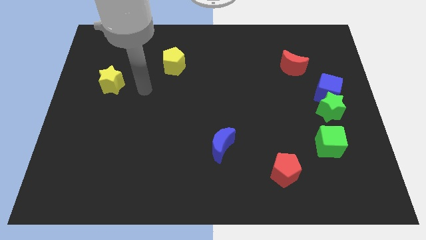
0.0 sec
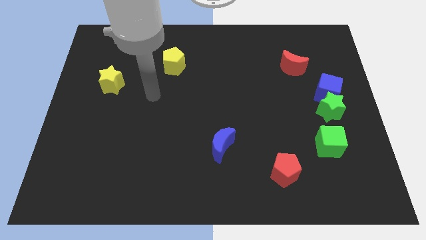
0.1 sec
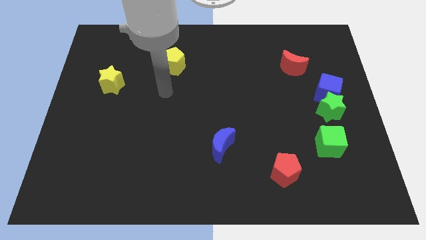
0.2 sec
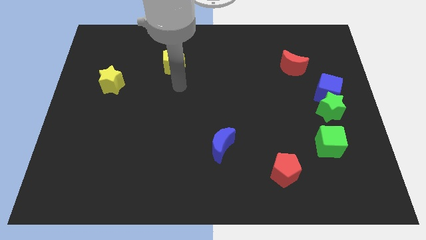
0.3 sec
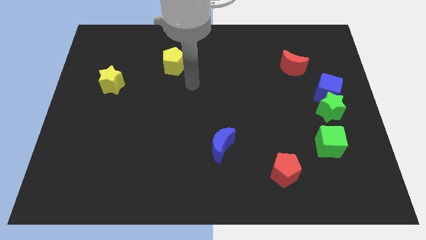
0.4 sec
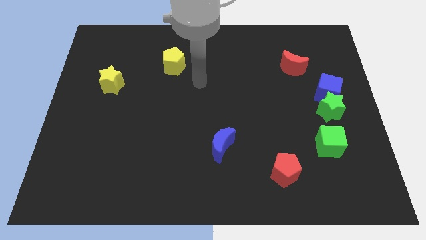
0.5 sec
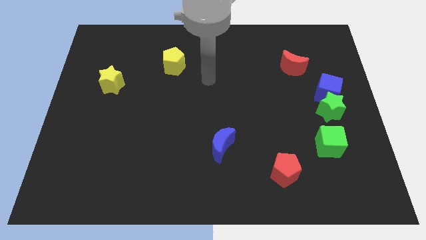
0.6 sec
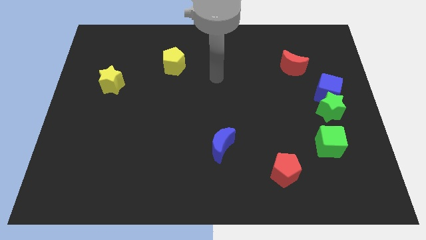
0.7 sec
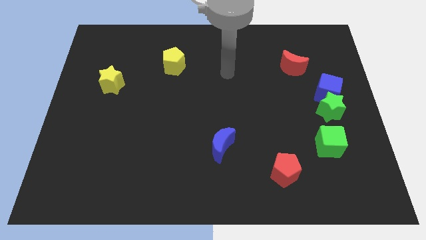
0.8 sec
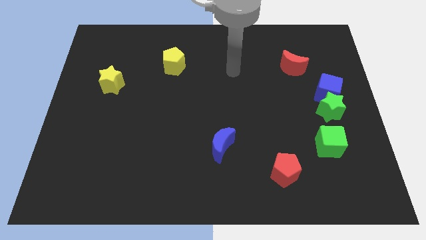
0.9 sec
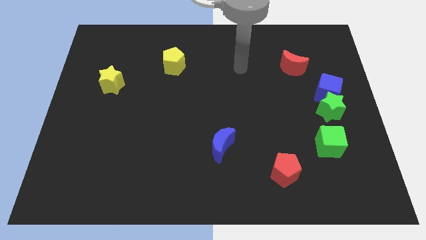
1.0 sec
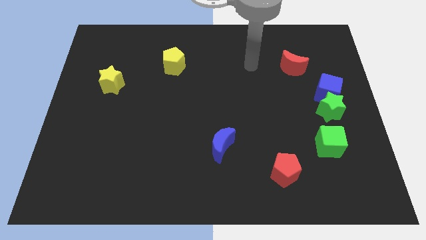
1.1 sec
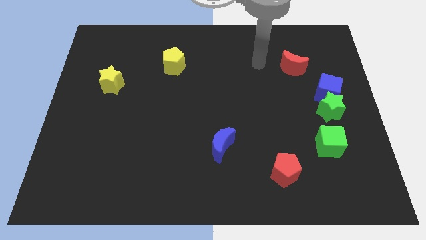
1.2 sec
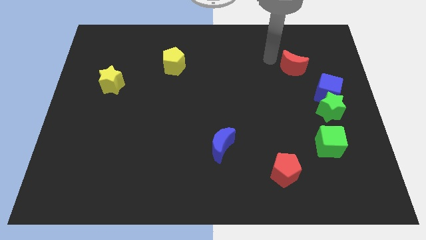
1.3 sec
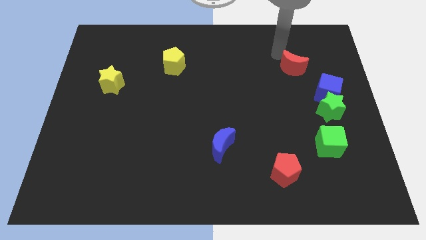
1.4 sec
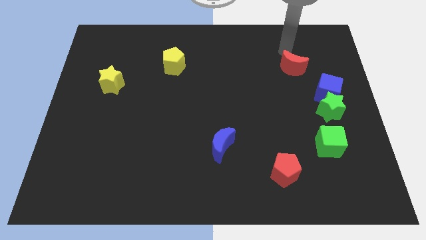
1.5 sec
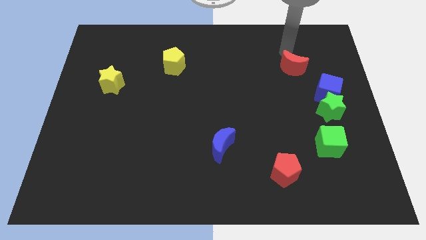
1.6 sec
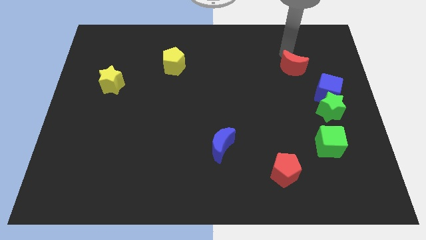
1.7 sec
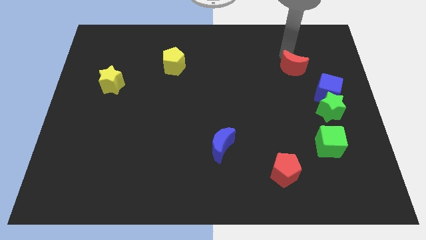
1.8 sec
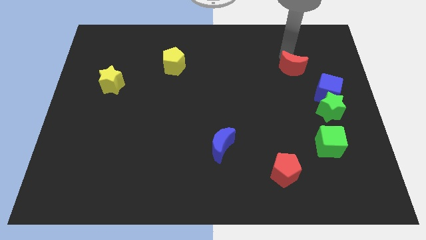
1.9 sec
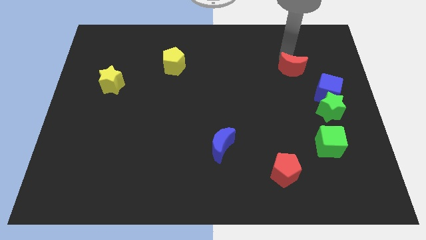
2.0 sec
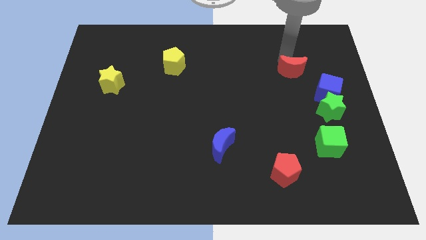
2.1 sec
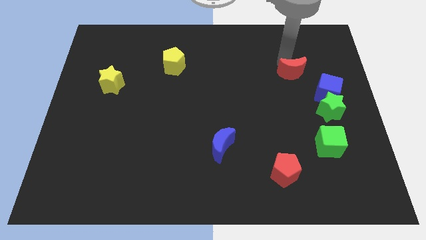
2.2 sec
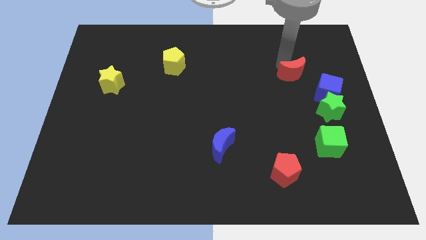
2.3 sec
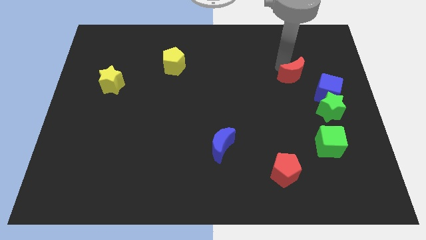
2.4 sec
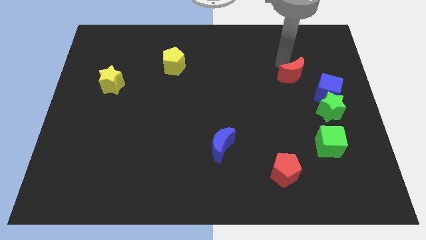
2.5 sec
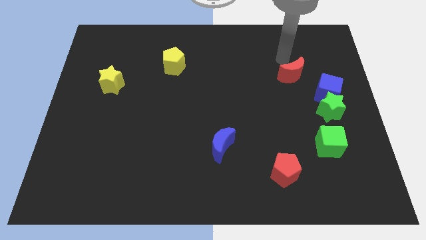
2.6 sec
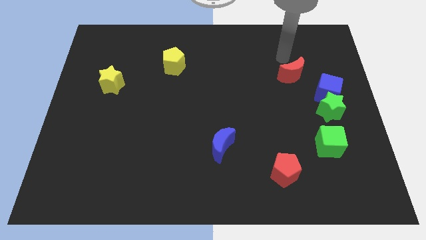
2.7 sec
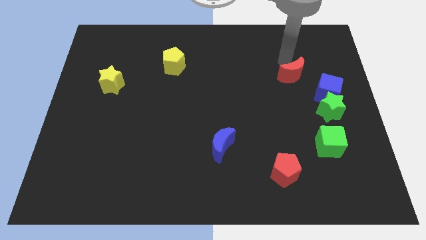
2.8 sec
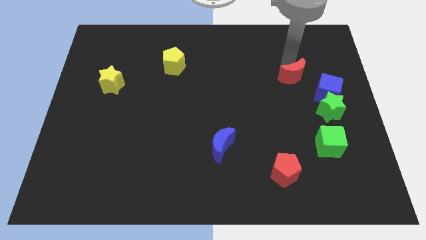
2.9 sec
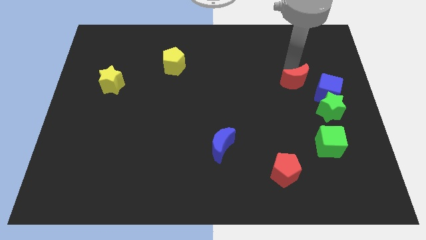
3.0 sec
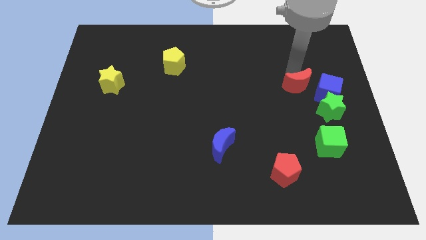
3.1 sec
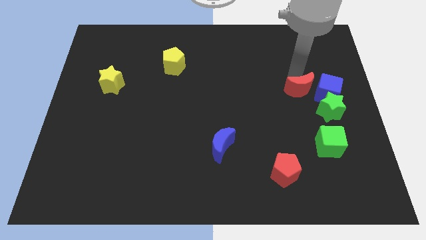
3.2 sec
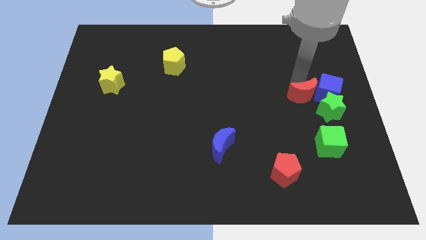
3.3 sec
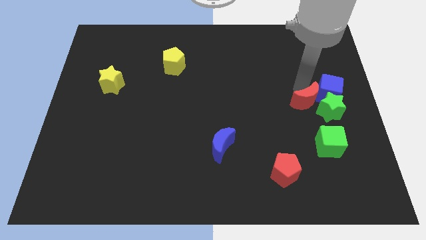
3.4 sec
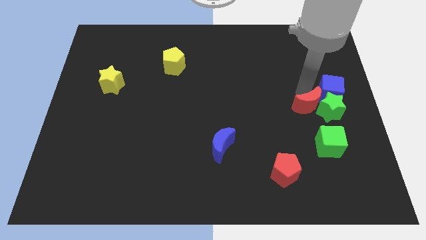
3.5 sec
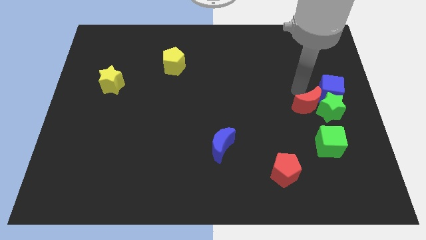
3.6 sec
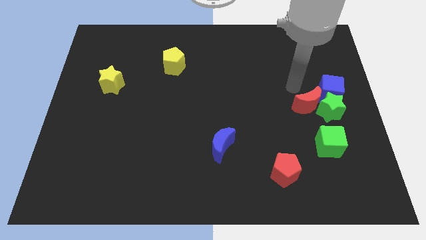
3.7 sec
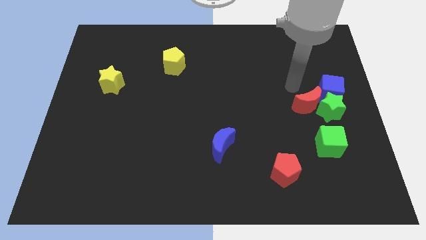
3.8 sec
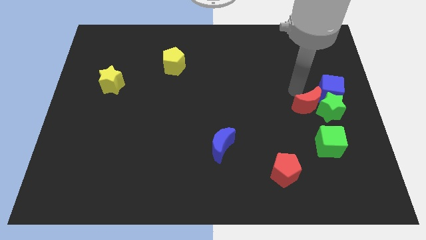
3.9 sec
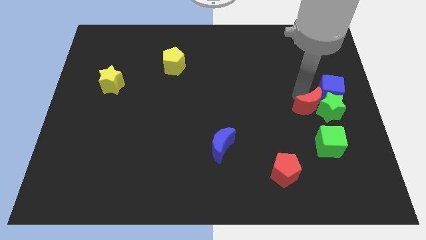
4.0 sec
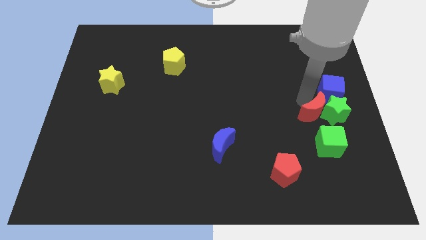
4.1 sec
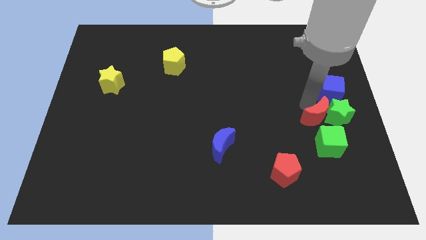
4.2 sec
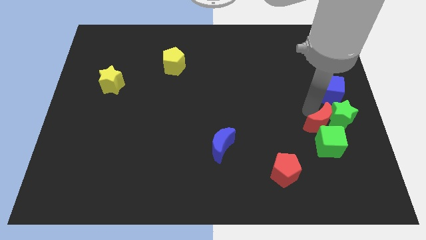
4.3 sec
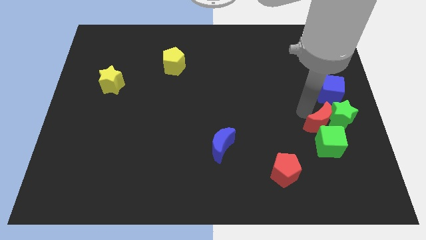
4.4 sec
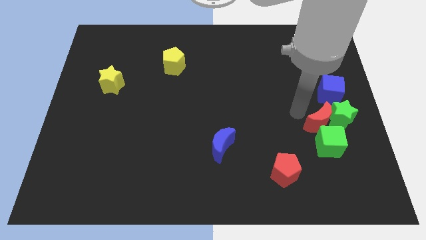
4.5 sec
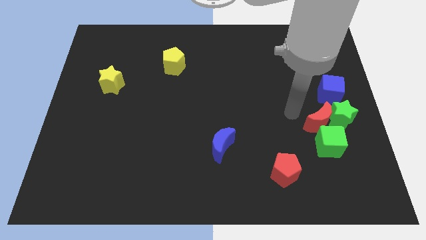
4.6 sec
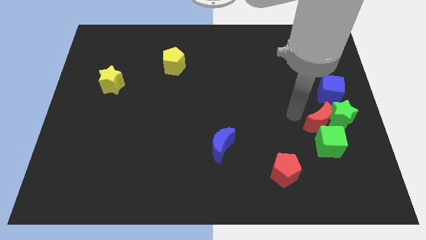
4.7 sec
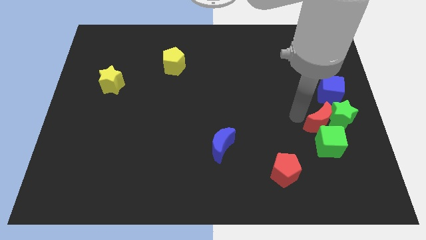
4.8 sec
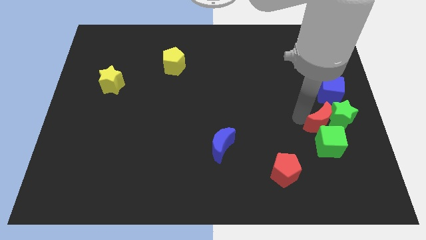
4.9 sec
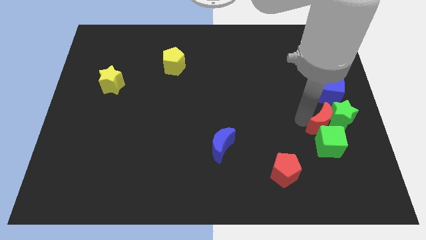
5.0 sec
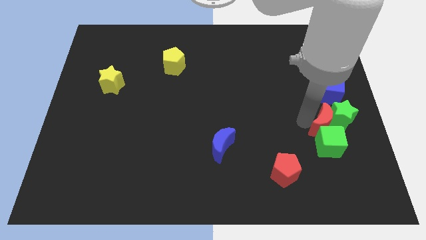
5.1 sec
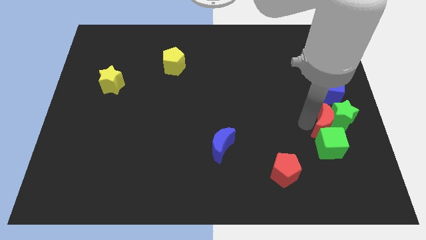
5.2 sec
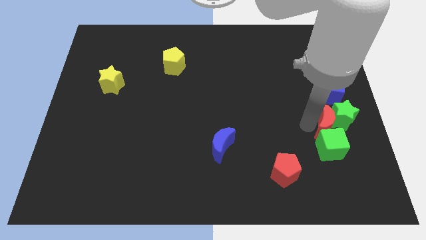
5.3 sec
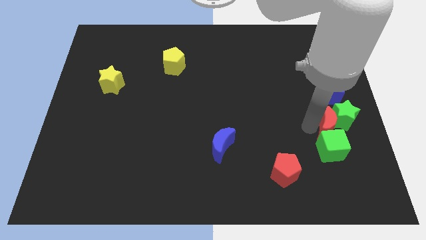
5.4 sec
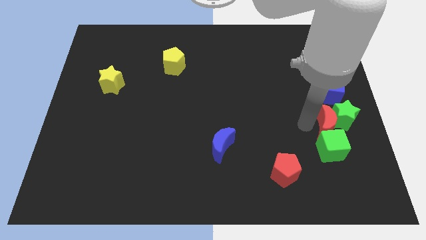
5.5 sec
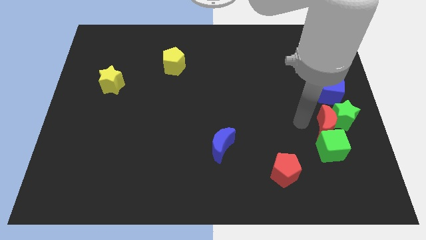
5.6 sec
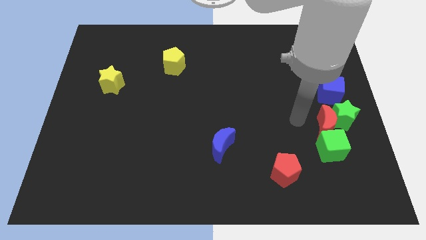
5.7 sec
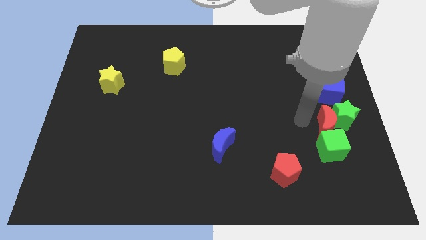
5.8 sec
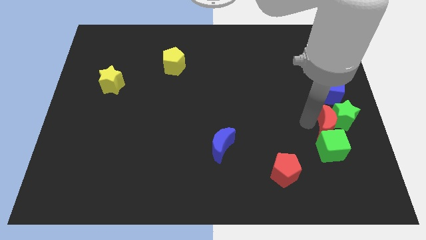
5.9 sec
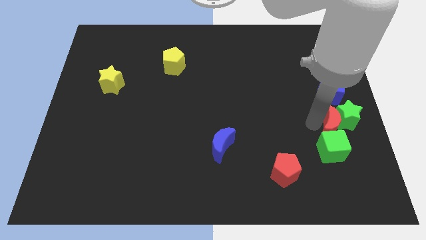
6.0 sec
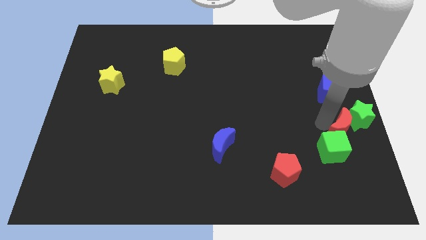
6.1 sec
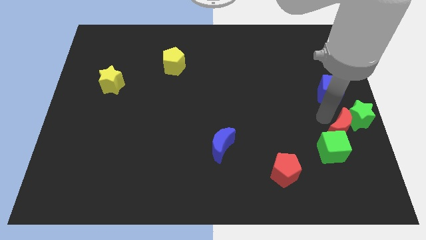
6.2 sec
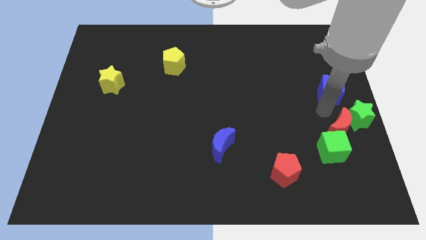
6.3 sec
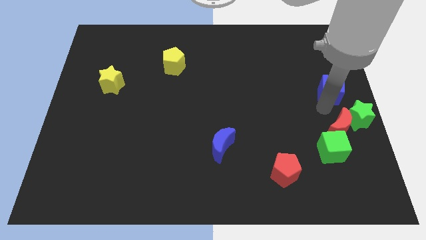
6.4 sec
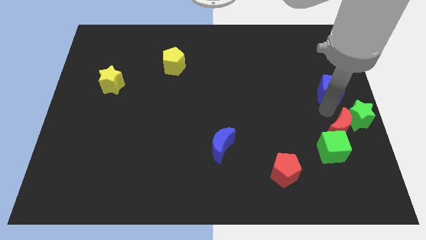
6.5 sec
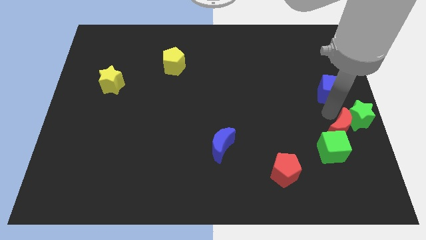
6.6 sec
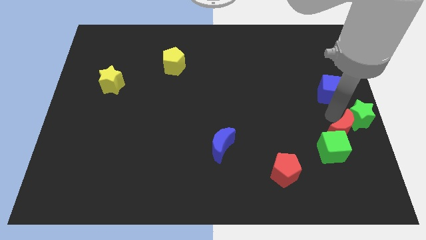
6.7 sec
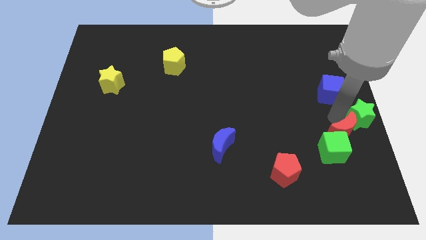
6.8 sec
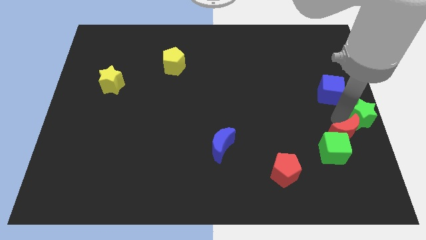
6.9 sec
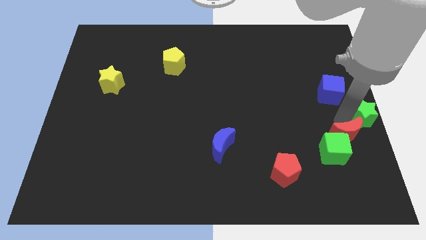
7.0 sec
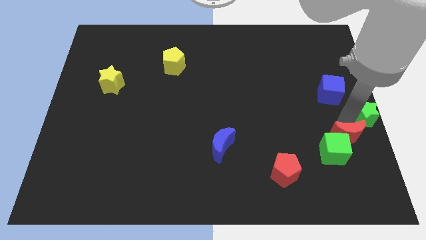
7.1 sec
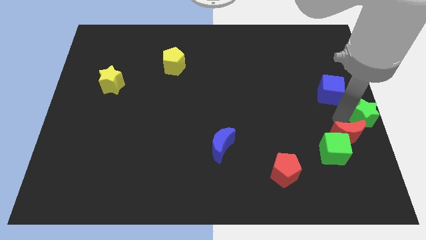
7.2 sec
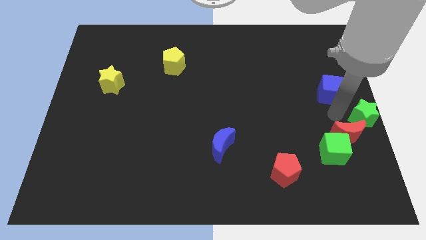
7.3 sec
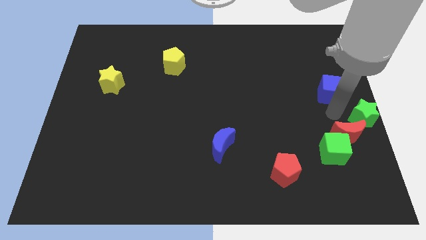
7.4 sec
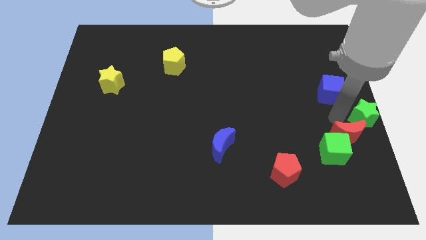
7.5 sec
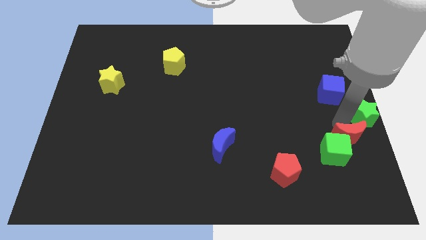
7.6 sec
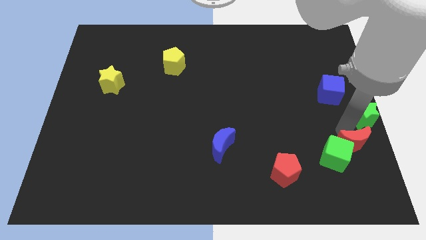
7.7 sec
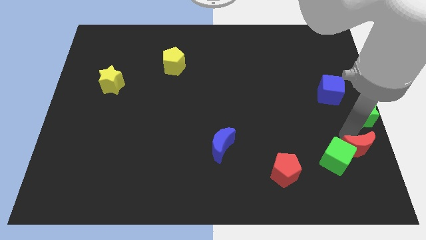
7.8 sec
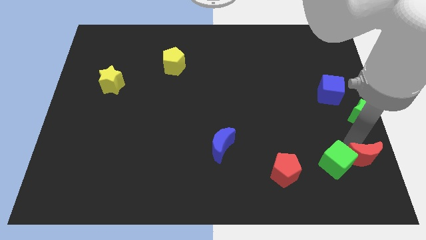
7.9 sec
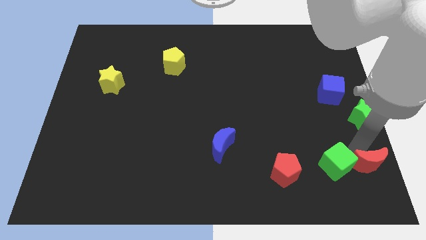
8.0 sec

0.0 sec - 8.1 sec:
slide the red moon to the bottom right
